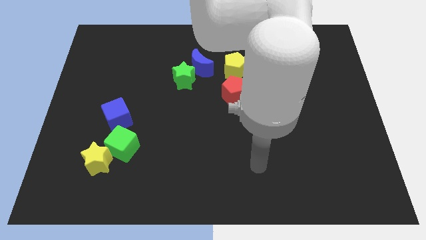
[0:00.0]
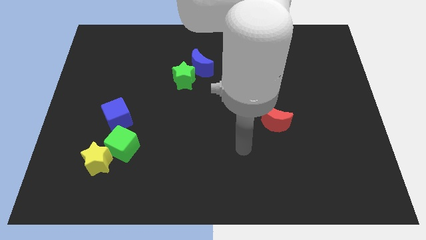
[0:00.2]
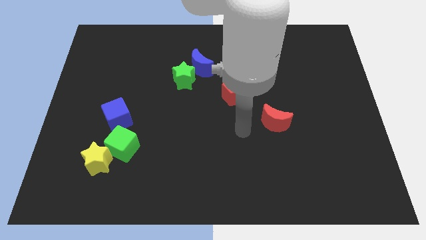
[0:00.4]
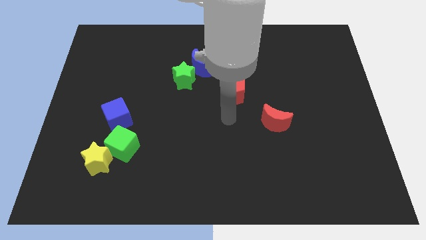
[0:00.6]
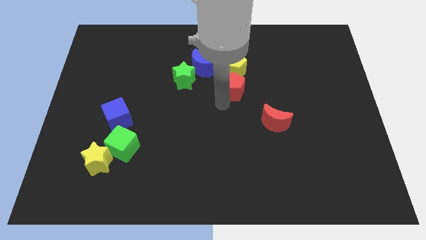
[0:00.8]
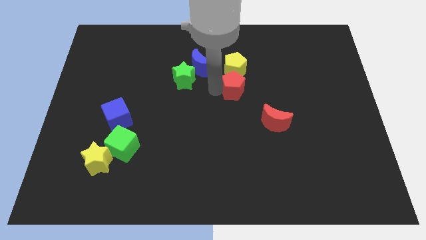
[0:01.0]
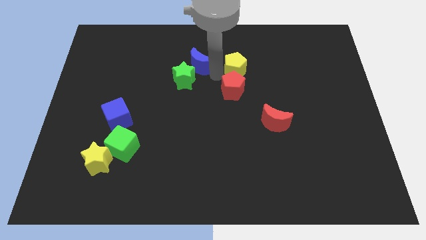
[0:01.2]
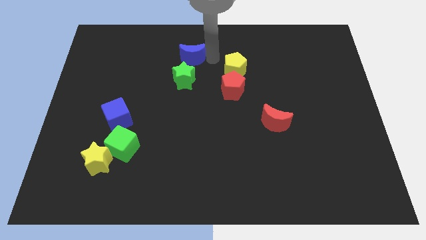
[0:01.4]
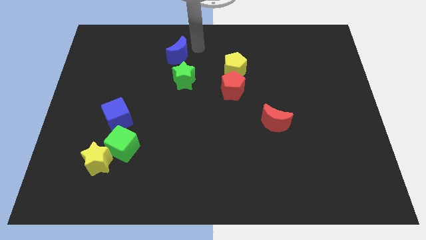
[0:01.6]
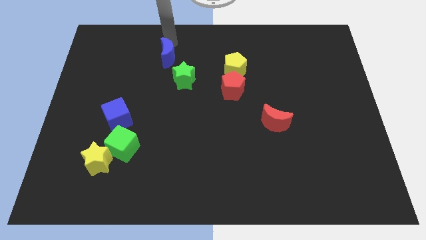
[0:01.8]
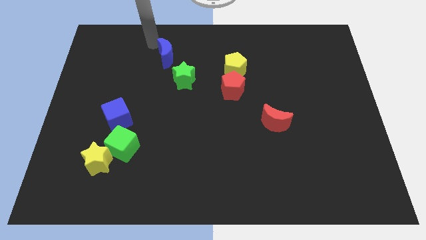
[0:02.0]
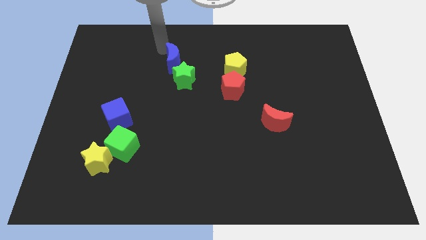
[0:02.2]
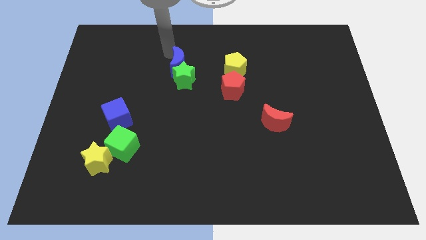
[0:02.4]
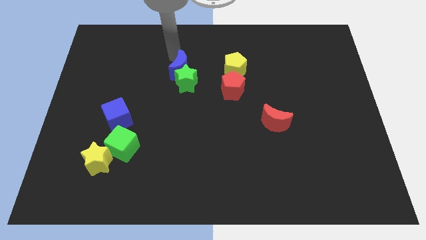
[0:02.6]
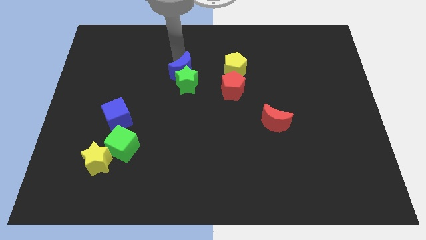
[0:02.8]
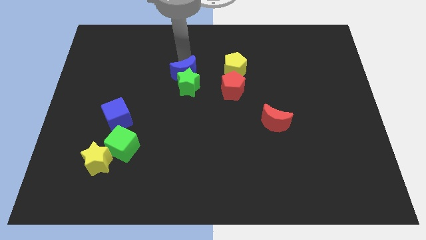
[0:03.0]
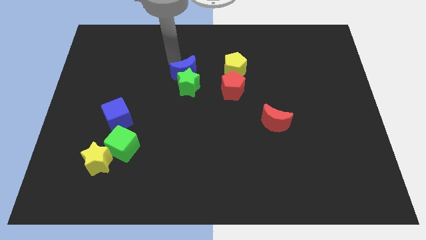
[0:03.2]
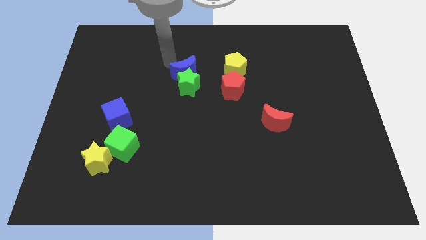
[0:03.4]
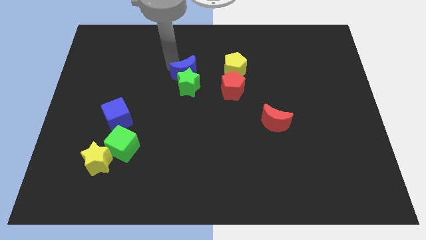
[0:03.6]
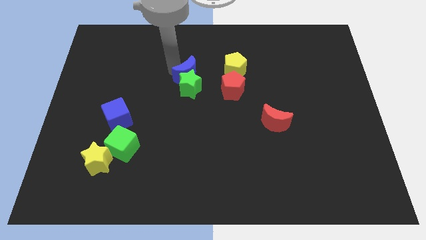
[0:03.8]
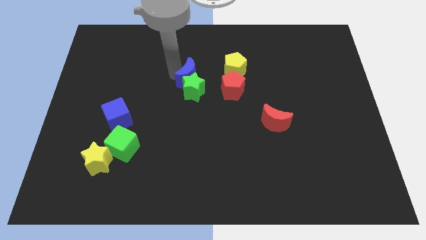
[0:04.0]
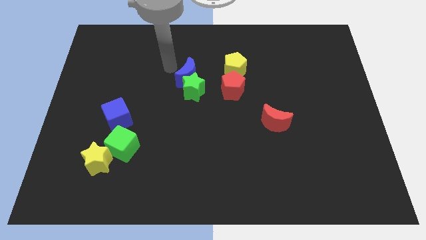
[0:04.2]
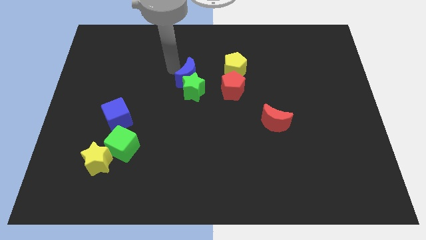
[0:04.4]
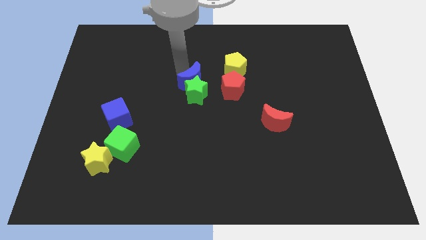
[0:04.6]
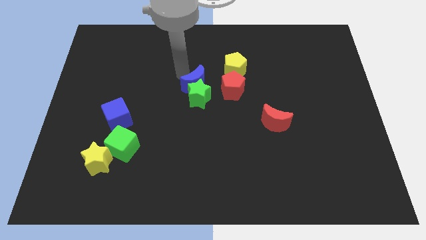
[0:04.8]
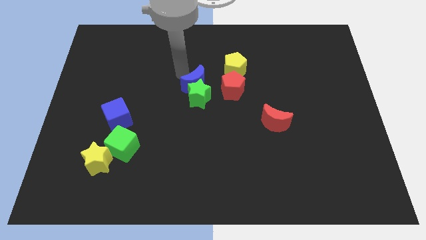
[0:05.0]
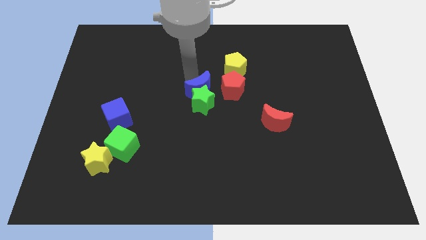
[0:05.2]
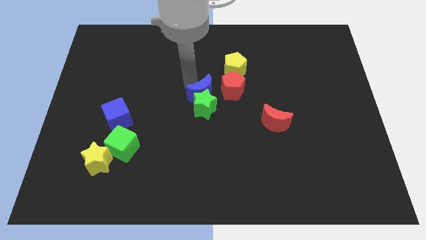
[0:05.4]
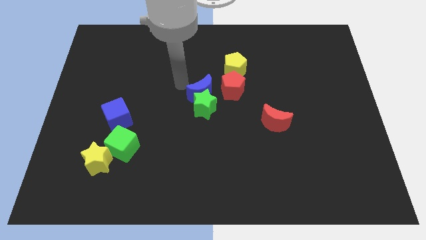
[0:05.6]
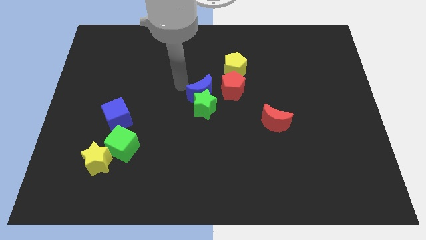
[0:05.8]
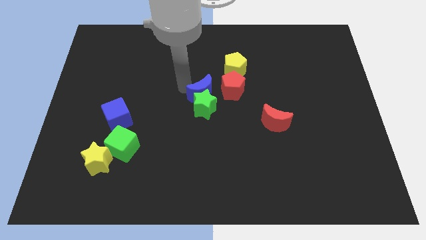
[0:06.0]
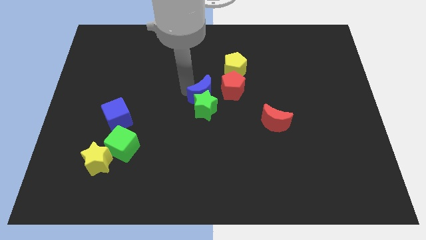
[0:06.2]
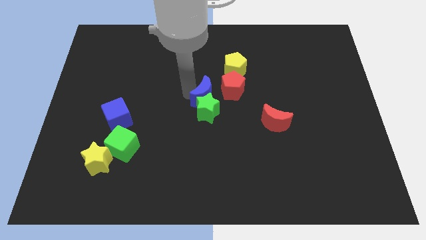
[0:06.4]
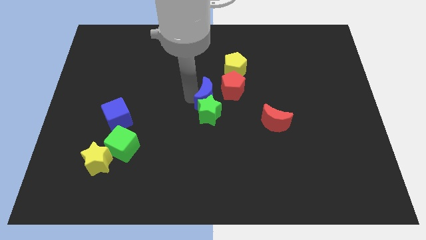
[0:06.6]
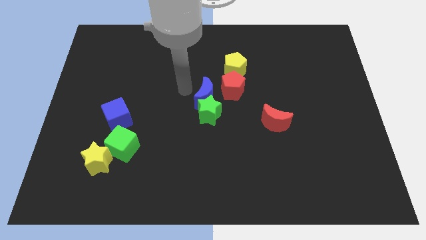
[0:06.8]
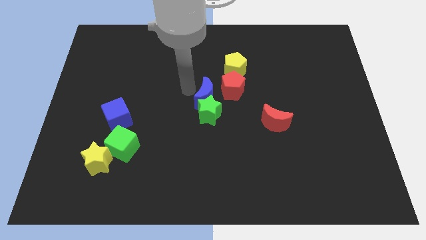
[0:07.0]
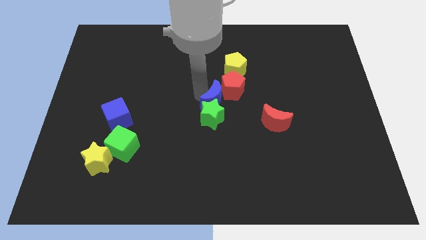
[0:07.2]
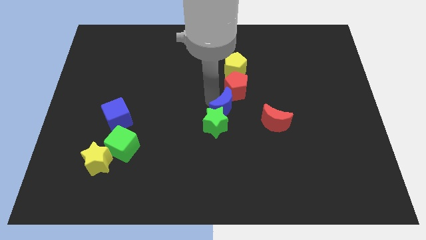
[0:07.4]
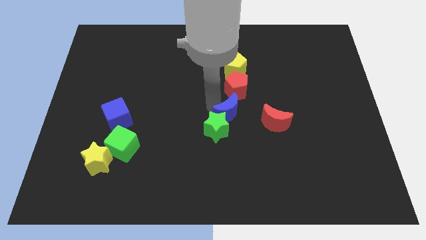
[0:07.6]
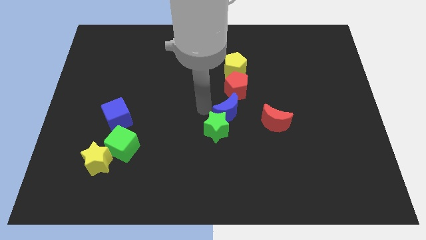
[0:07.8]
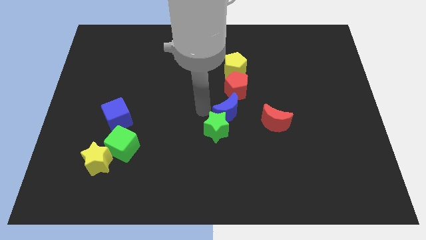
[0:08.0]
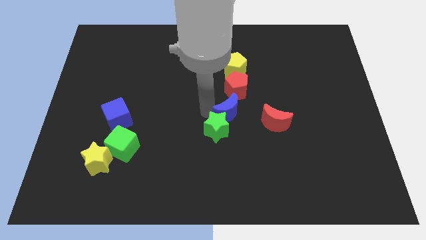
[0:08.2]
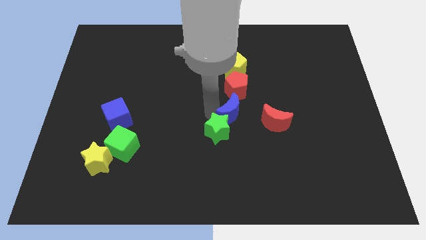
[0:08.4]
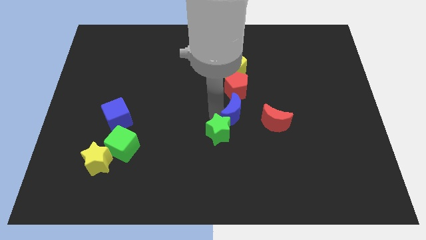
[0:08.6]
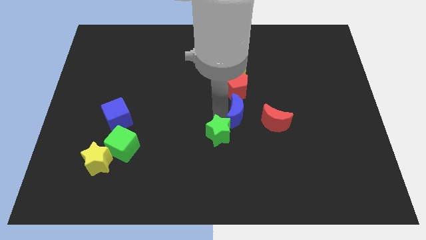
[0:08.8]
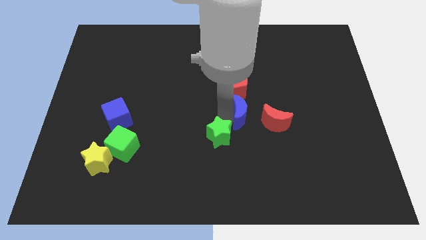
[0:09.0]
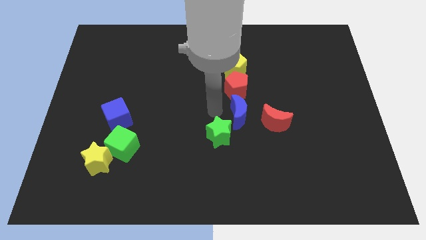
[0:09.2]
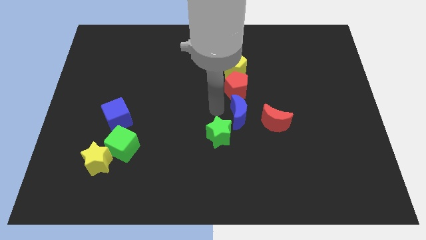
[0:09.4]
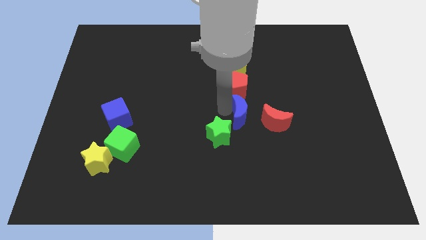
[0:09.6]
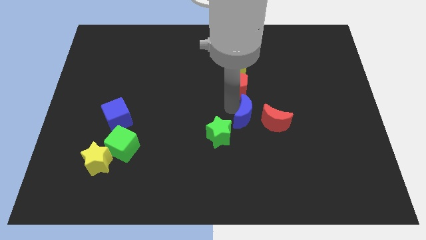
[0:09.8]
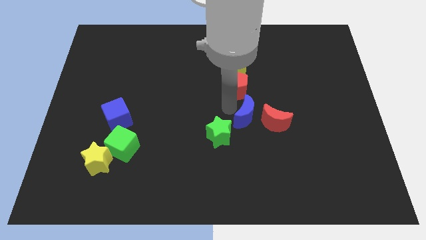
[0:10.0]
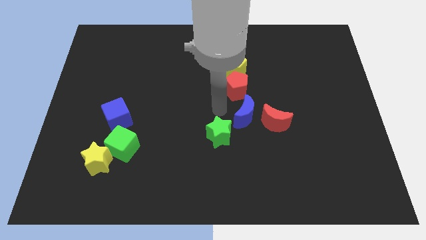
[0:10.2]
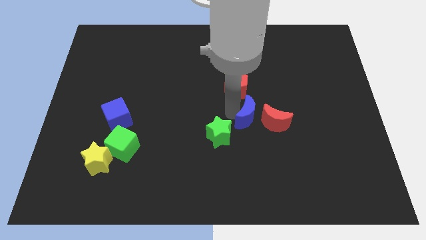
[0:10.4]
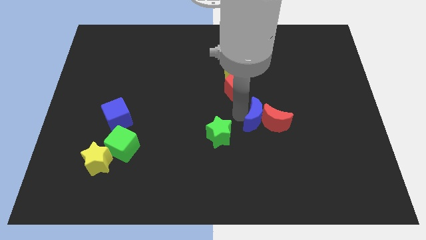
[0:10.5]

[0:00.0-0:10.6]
put the blue moon to the red moon

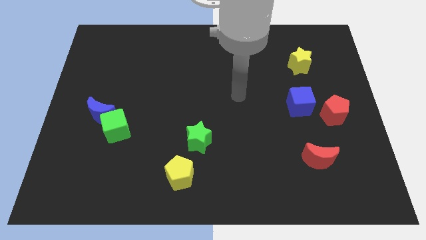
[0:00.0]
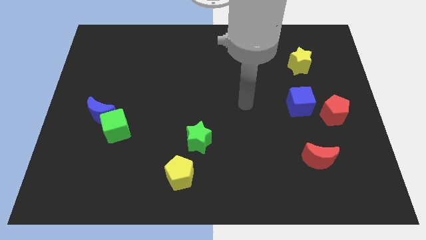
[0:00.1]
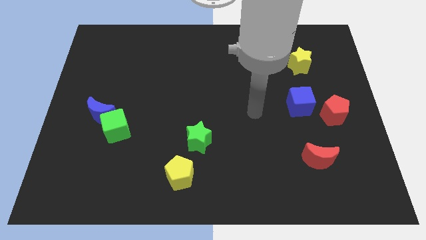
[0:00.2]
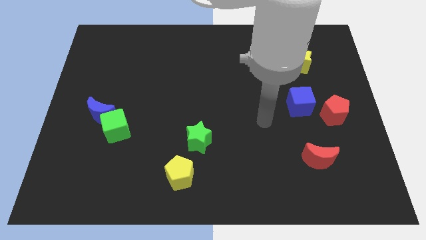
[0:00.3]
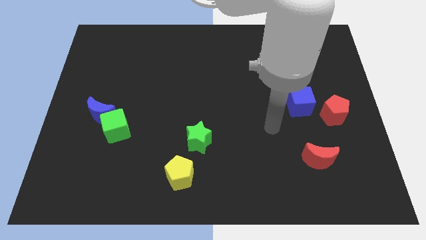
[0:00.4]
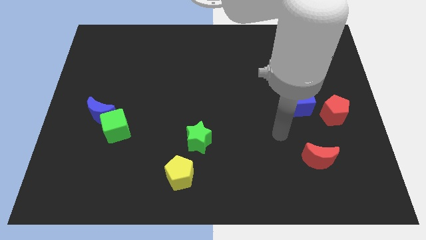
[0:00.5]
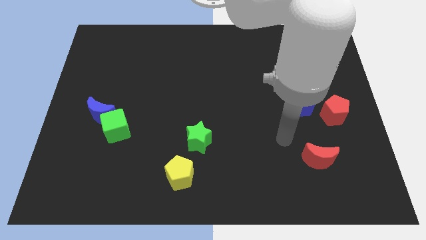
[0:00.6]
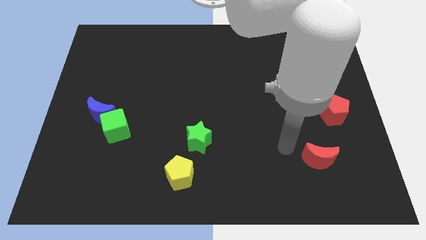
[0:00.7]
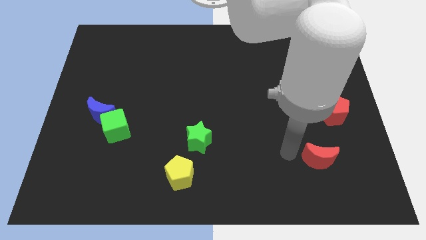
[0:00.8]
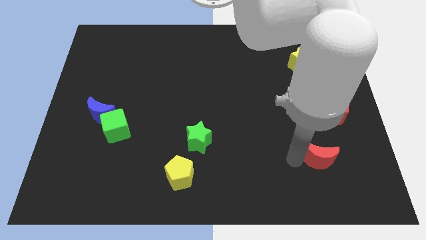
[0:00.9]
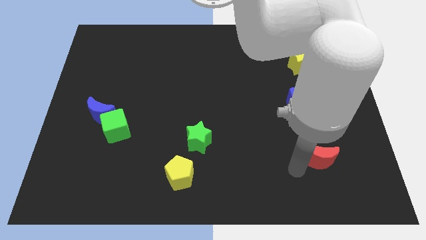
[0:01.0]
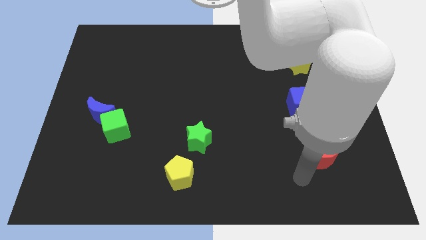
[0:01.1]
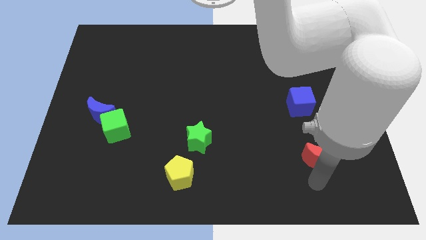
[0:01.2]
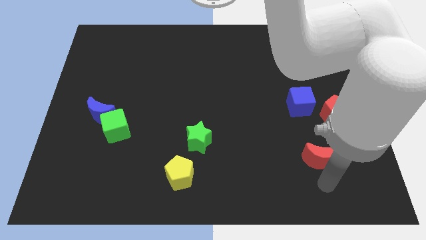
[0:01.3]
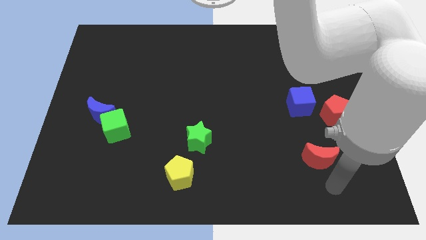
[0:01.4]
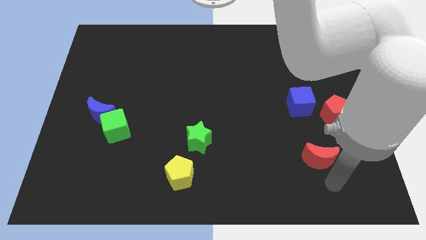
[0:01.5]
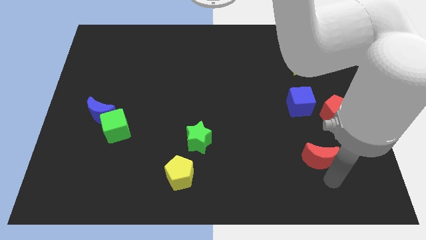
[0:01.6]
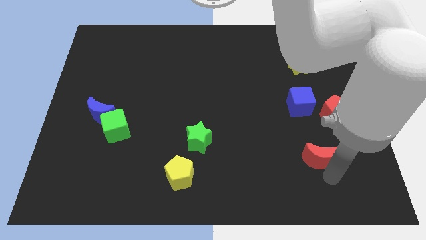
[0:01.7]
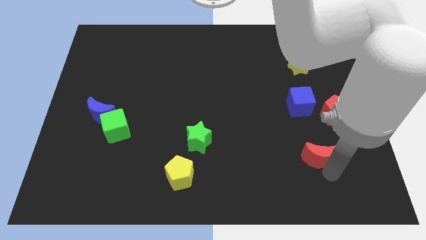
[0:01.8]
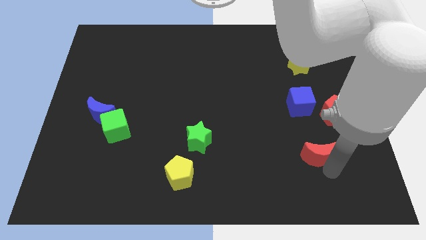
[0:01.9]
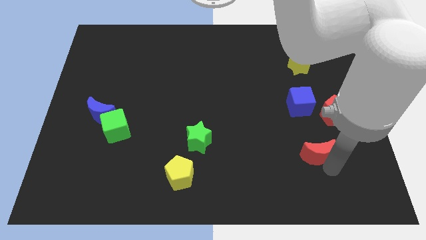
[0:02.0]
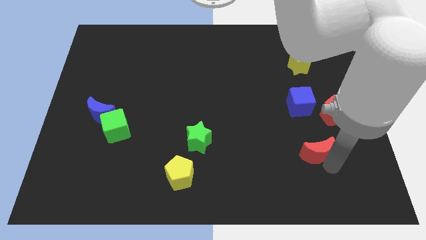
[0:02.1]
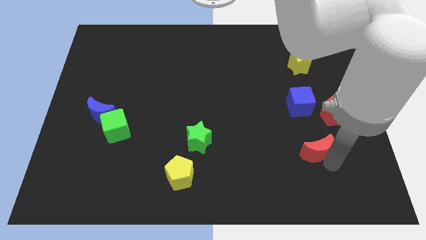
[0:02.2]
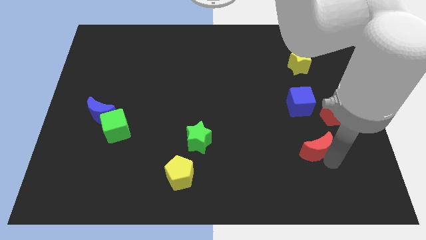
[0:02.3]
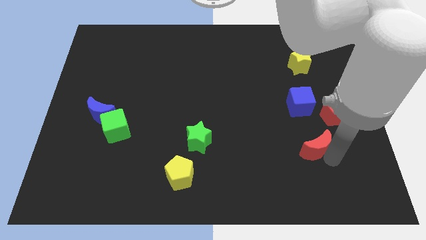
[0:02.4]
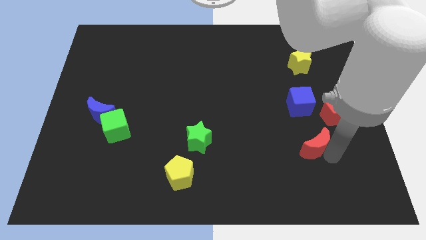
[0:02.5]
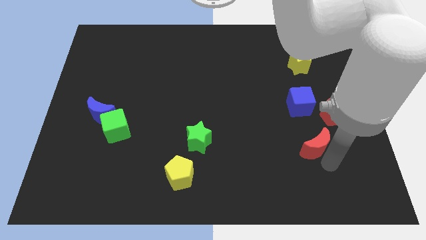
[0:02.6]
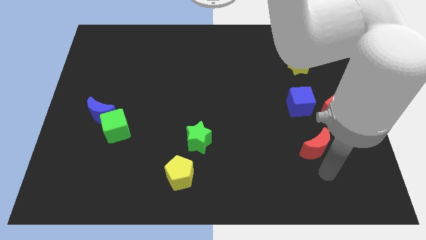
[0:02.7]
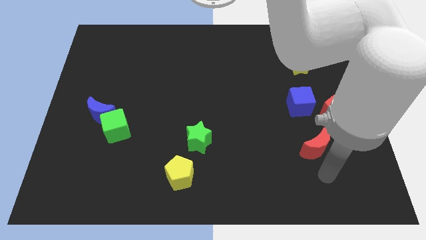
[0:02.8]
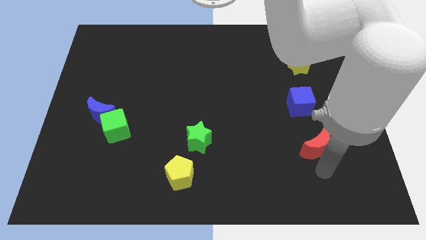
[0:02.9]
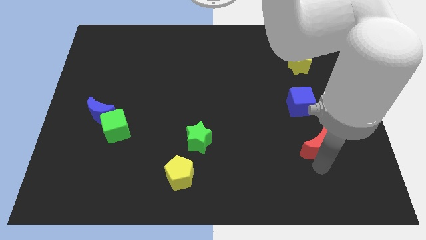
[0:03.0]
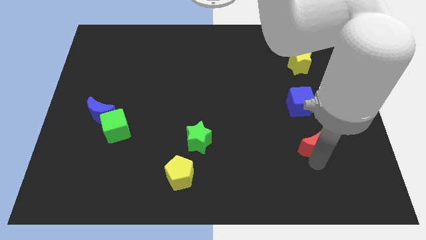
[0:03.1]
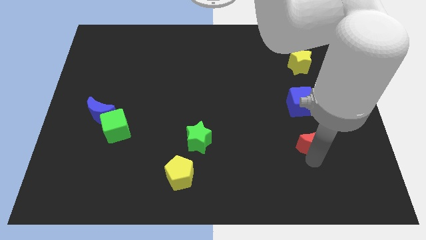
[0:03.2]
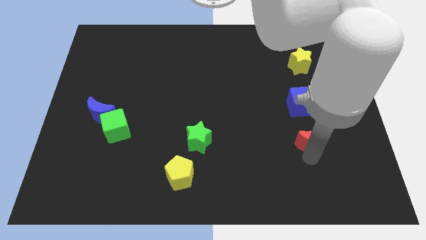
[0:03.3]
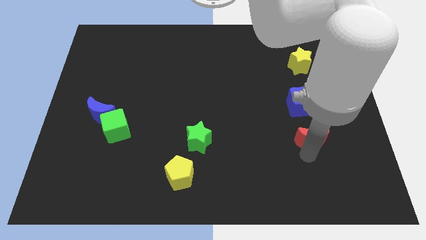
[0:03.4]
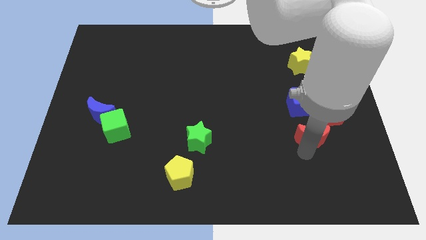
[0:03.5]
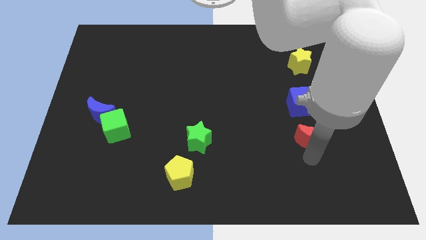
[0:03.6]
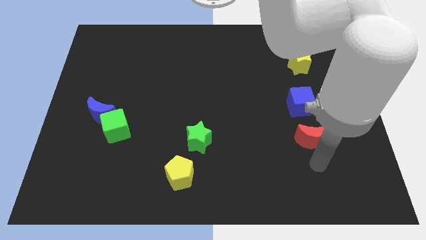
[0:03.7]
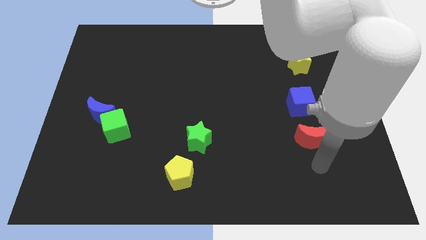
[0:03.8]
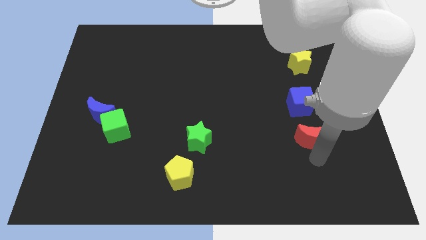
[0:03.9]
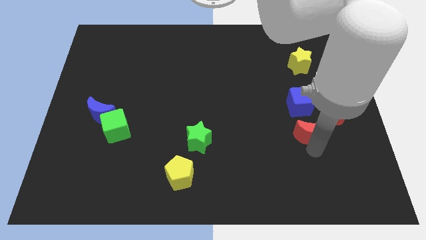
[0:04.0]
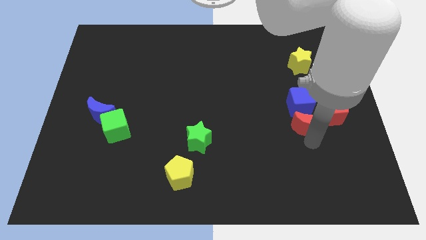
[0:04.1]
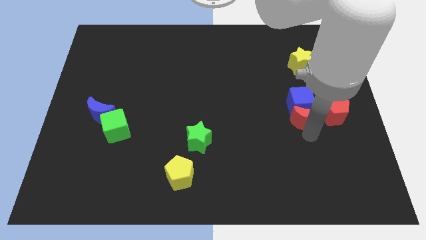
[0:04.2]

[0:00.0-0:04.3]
put the red moon towards the blue cube
